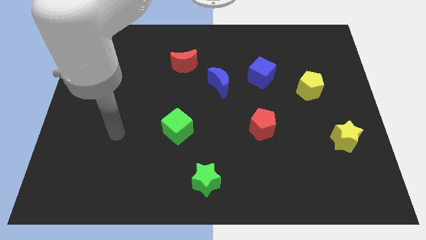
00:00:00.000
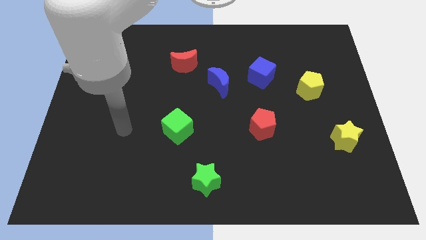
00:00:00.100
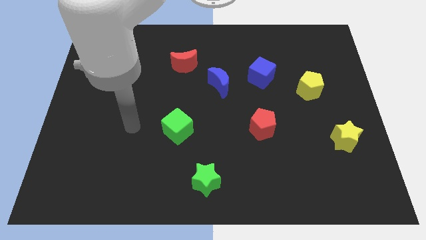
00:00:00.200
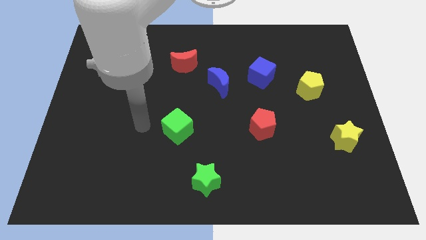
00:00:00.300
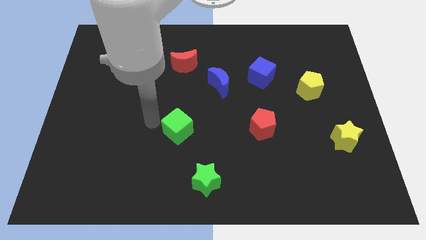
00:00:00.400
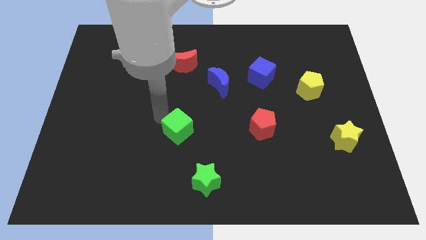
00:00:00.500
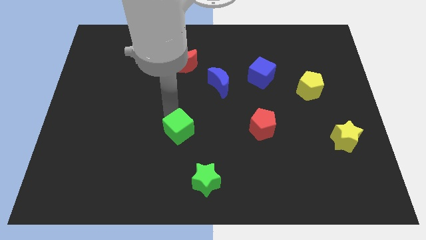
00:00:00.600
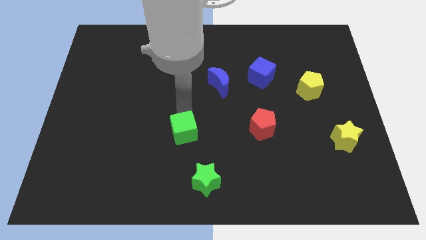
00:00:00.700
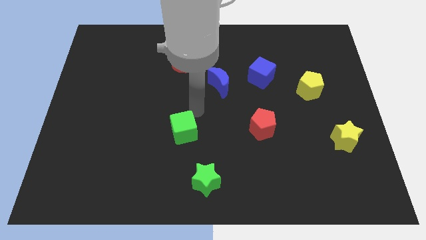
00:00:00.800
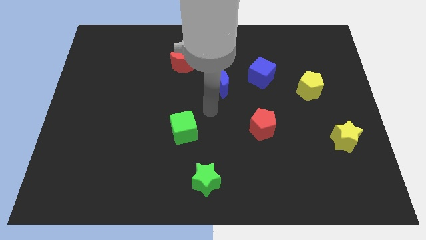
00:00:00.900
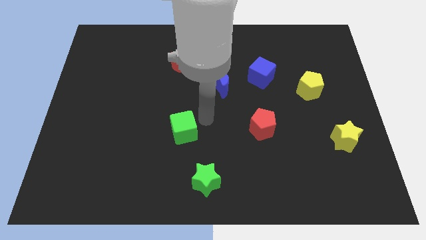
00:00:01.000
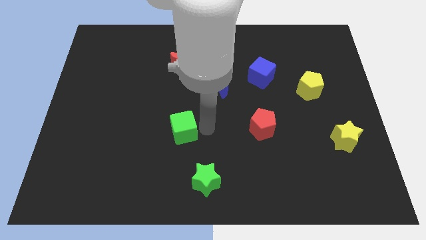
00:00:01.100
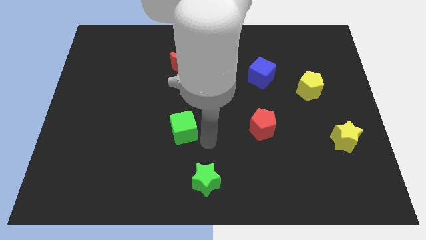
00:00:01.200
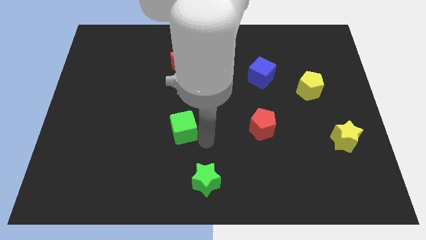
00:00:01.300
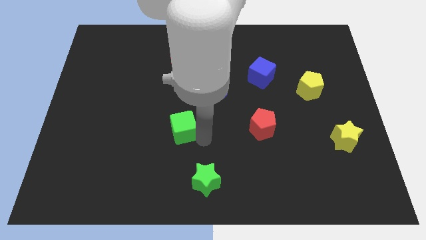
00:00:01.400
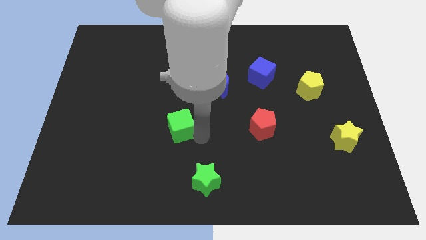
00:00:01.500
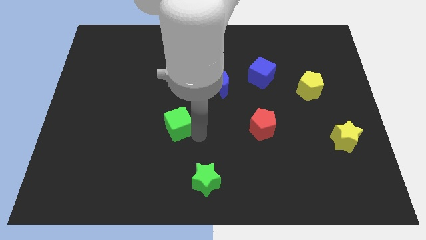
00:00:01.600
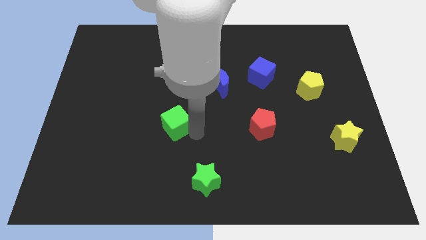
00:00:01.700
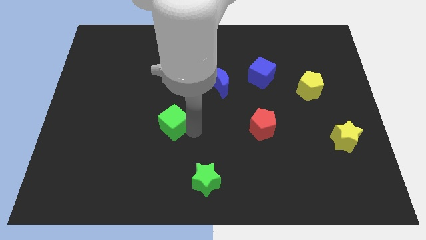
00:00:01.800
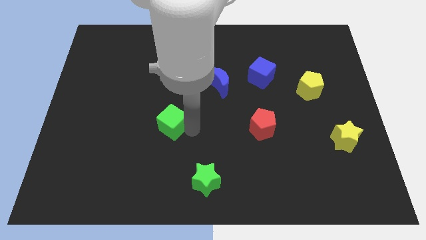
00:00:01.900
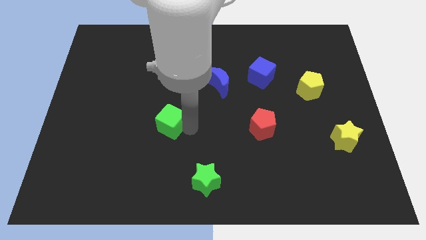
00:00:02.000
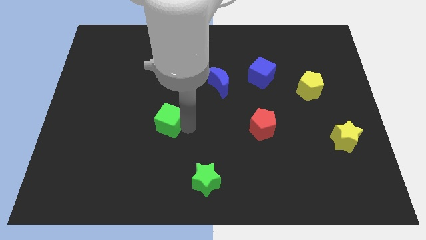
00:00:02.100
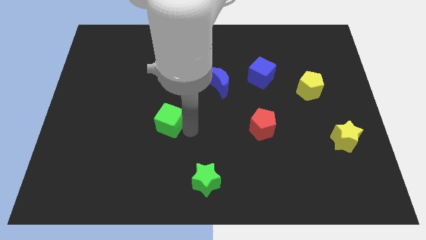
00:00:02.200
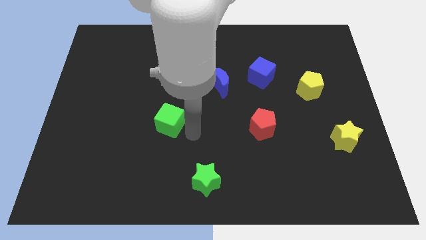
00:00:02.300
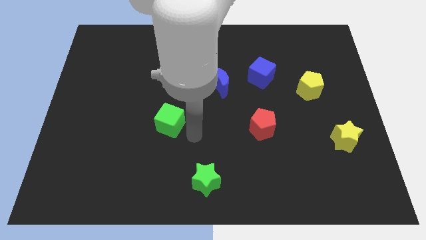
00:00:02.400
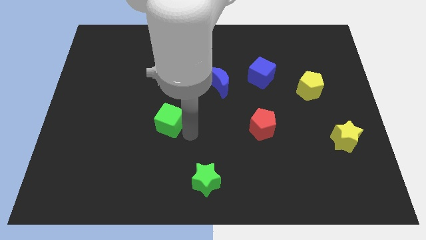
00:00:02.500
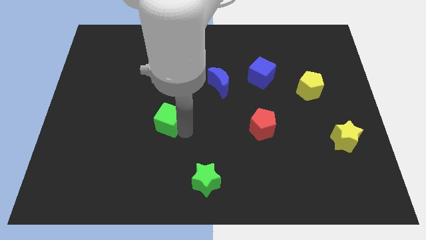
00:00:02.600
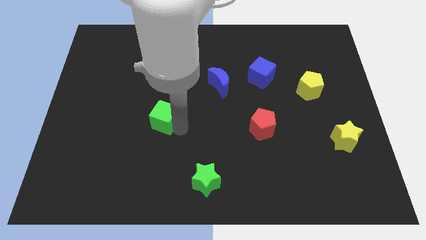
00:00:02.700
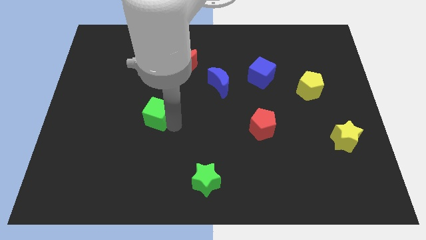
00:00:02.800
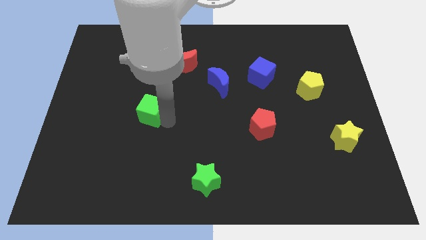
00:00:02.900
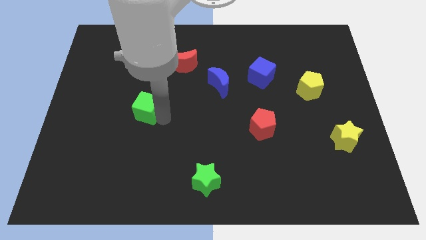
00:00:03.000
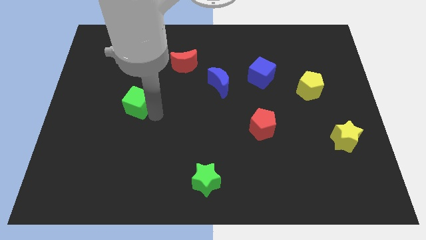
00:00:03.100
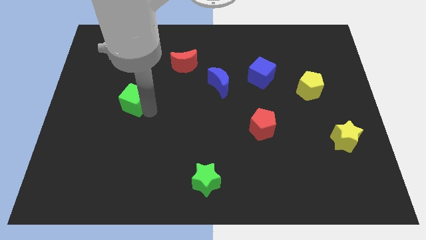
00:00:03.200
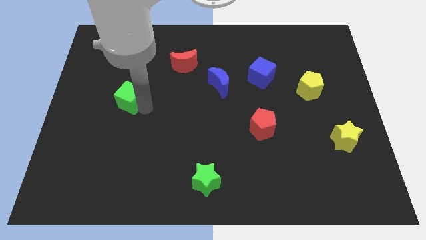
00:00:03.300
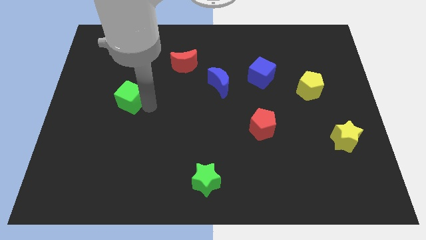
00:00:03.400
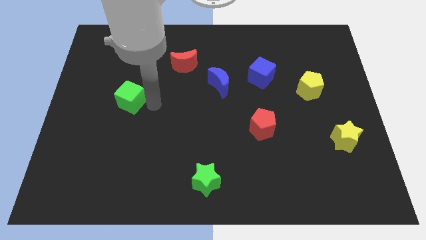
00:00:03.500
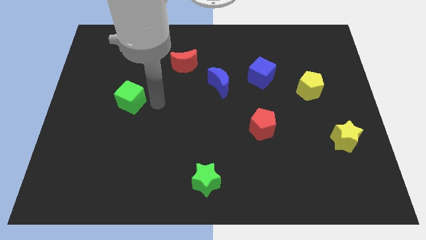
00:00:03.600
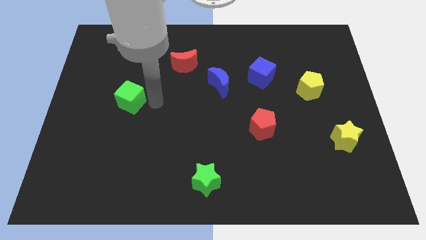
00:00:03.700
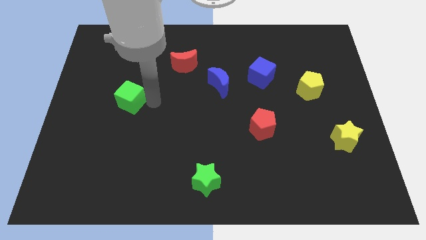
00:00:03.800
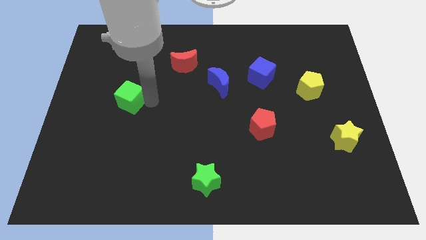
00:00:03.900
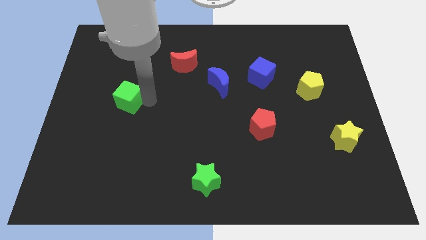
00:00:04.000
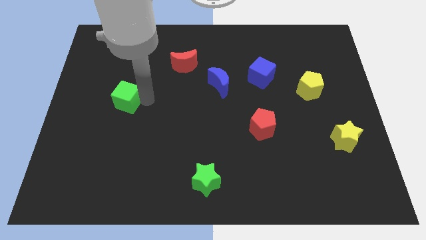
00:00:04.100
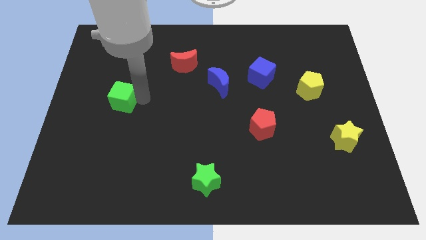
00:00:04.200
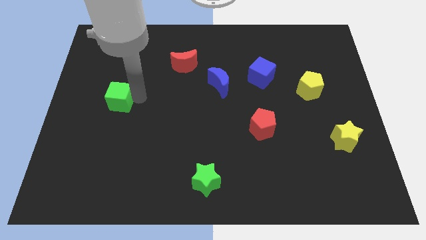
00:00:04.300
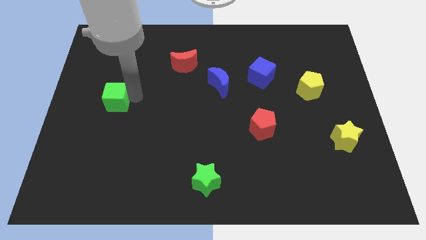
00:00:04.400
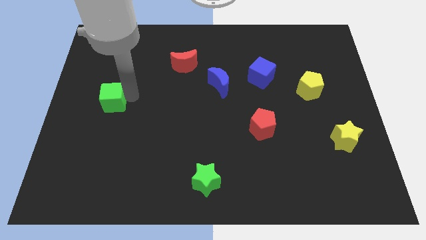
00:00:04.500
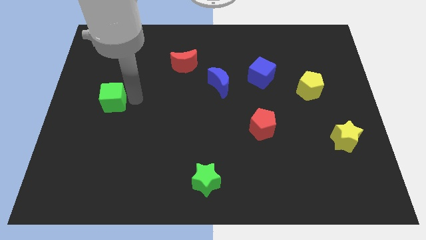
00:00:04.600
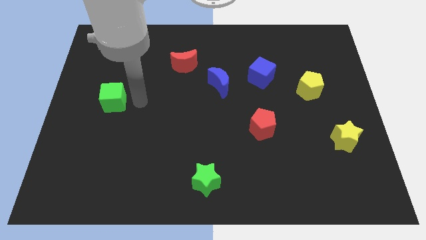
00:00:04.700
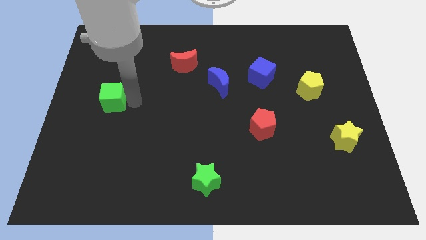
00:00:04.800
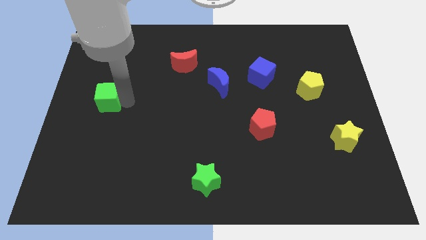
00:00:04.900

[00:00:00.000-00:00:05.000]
slide the green cube to the left side

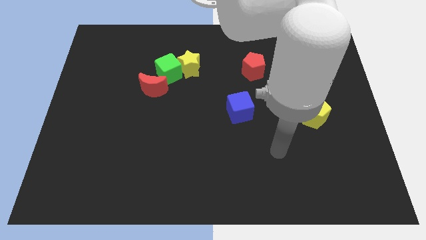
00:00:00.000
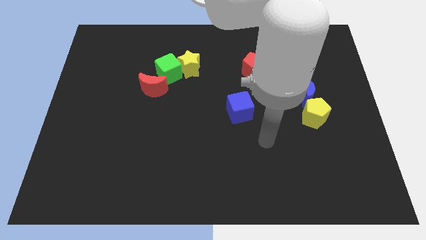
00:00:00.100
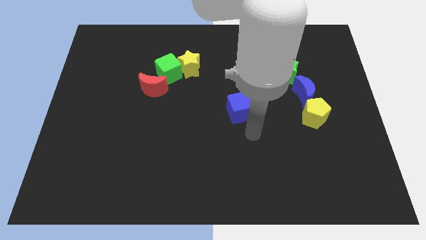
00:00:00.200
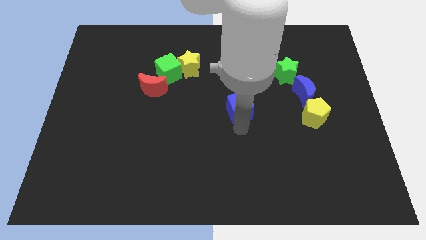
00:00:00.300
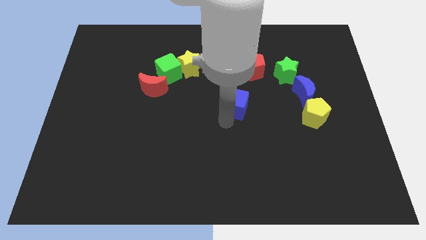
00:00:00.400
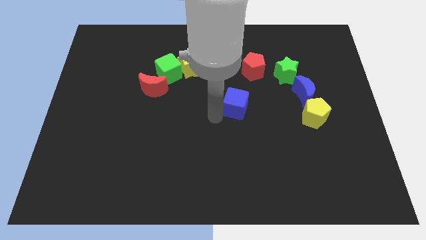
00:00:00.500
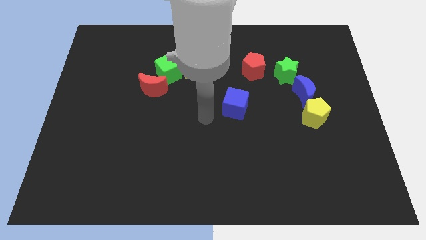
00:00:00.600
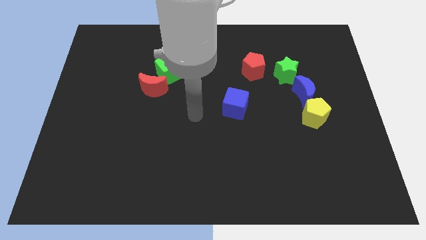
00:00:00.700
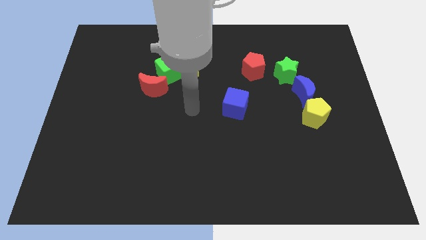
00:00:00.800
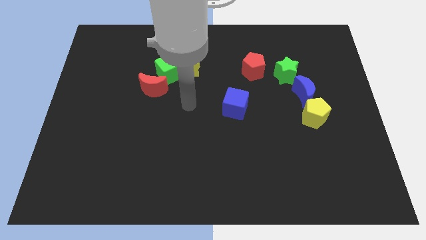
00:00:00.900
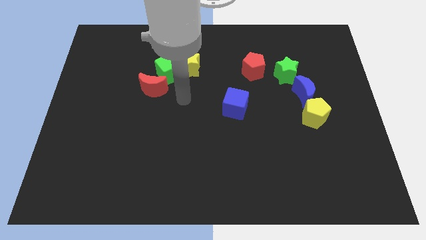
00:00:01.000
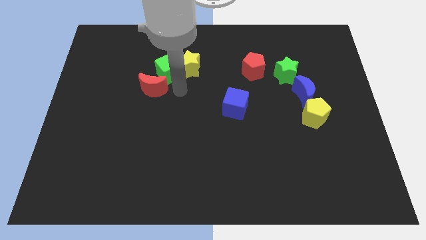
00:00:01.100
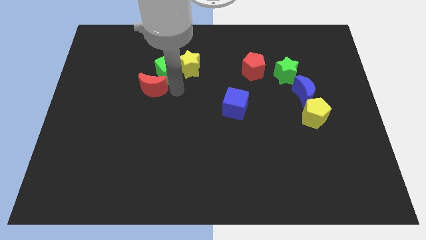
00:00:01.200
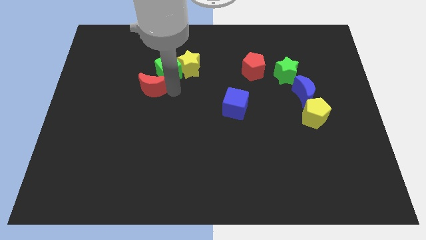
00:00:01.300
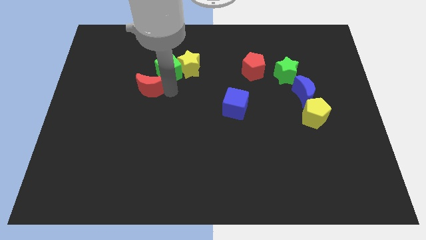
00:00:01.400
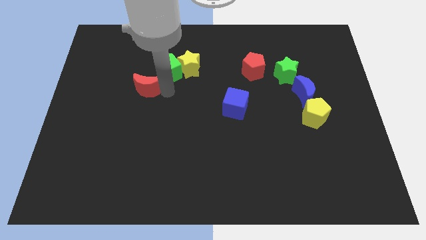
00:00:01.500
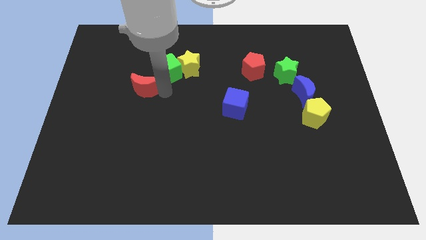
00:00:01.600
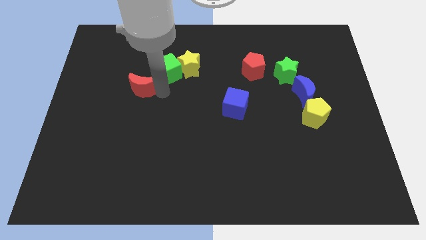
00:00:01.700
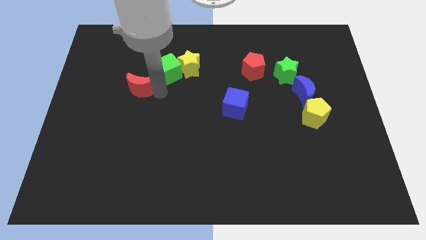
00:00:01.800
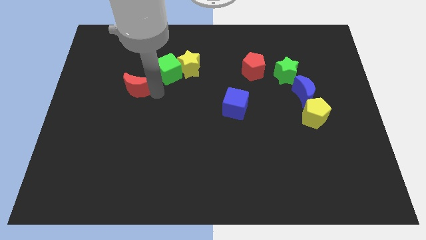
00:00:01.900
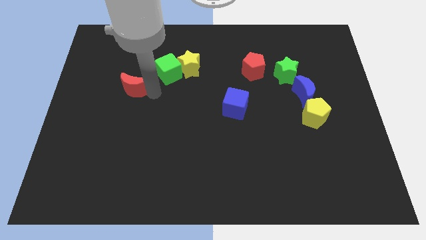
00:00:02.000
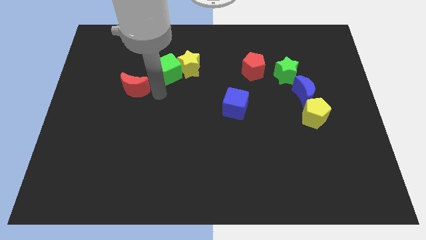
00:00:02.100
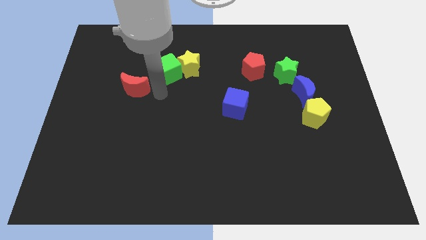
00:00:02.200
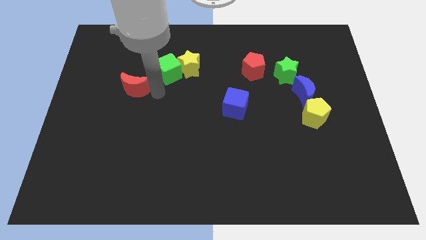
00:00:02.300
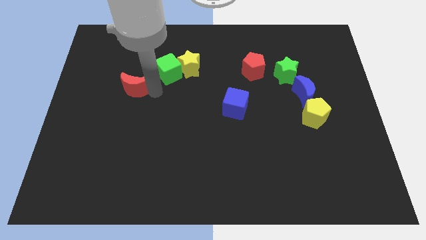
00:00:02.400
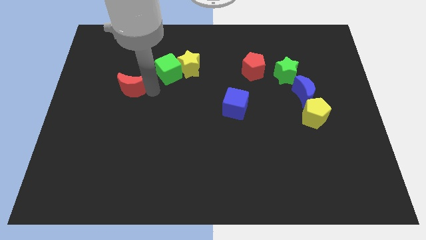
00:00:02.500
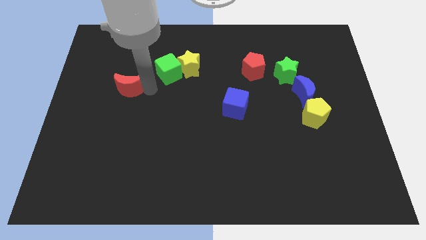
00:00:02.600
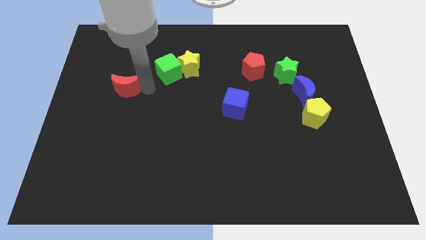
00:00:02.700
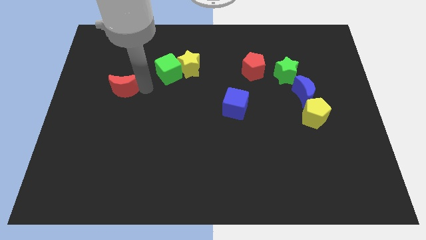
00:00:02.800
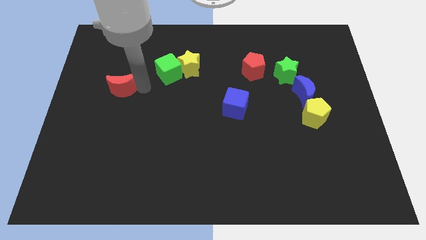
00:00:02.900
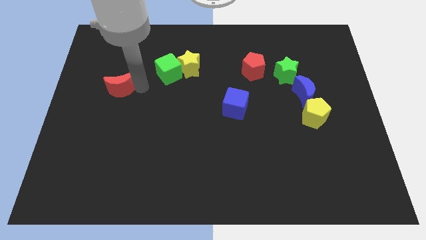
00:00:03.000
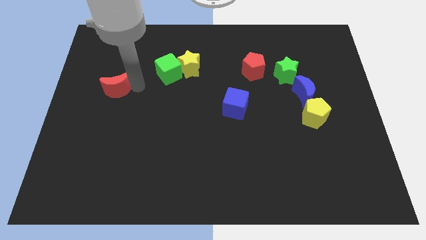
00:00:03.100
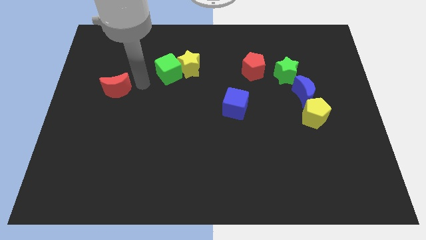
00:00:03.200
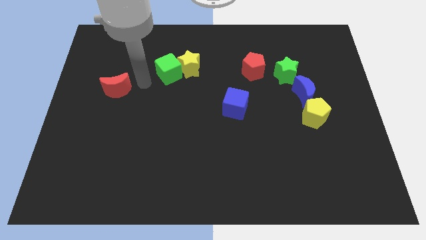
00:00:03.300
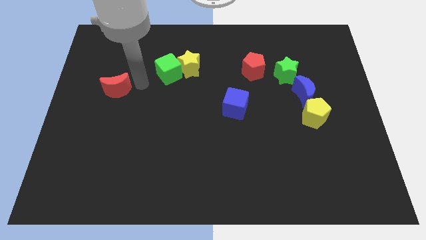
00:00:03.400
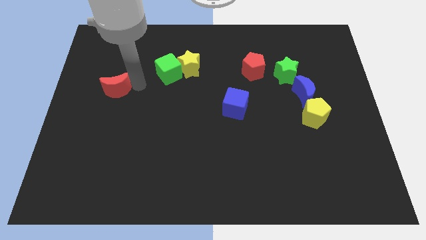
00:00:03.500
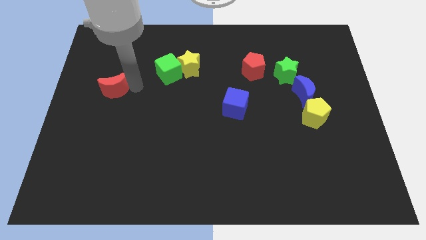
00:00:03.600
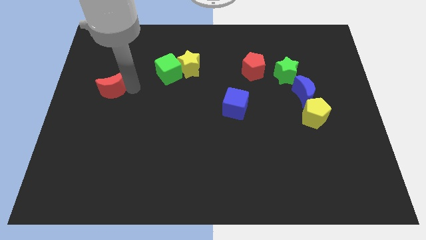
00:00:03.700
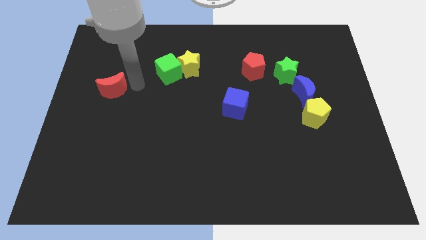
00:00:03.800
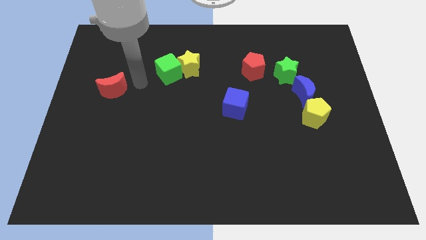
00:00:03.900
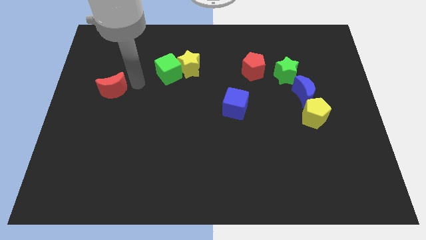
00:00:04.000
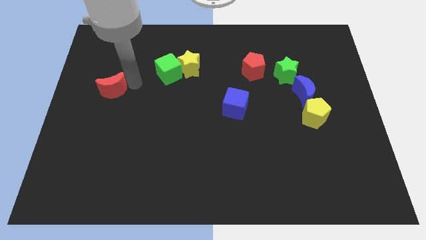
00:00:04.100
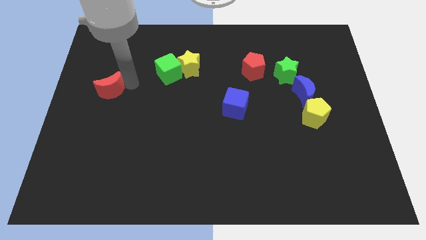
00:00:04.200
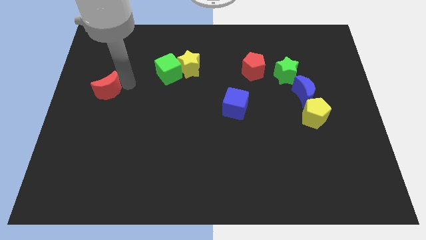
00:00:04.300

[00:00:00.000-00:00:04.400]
slide the red moon to the left side of the board
